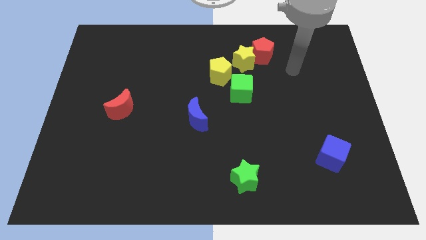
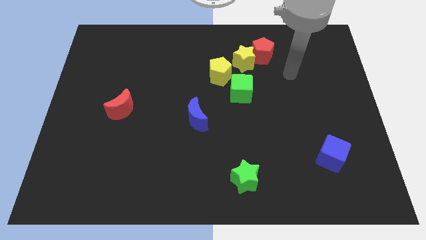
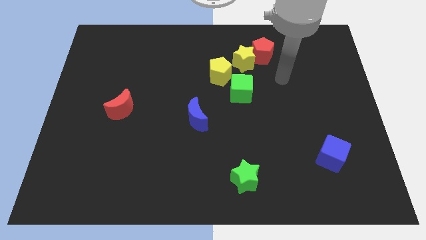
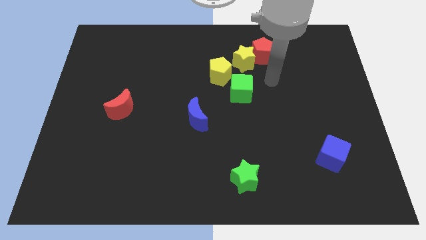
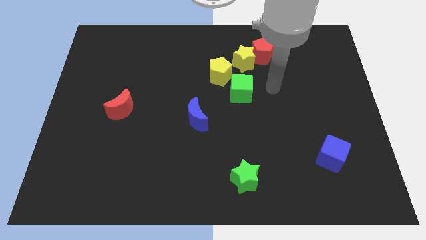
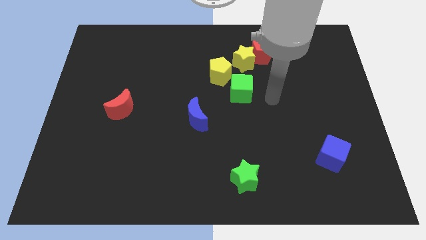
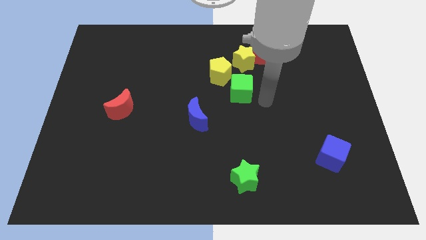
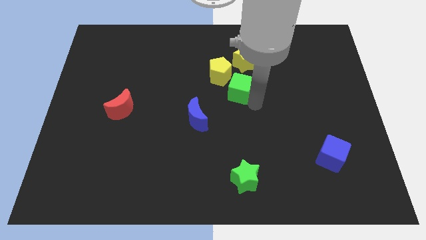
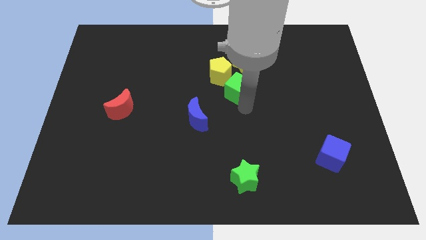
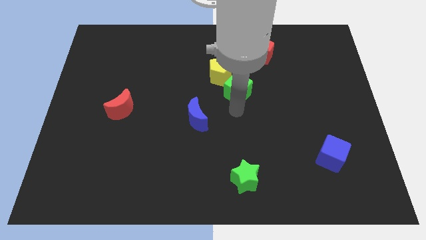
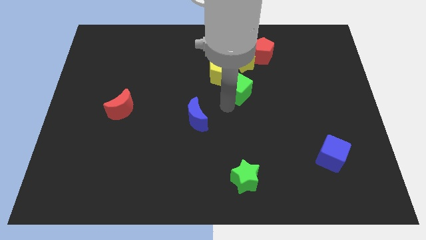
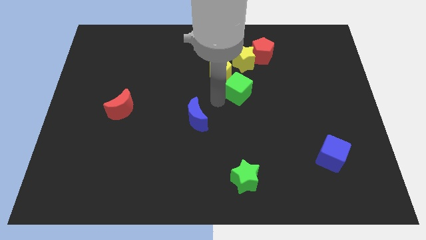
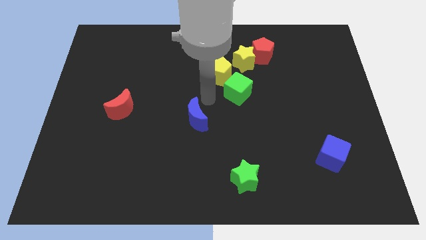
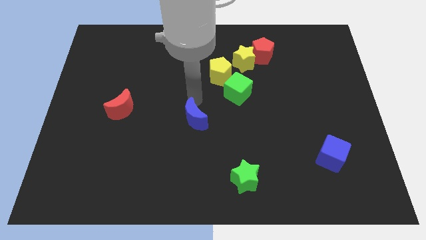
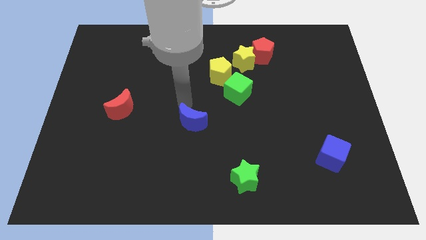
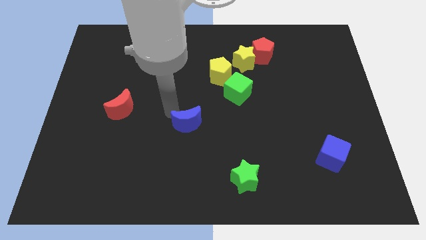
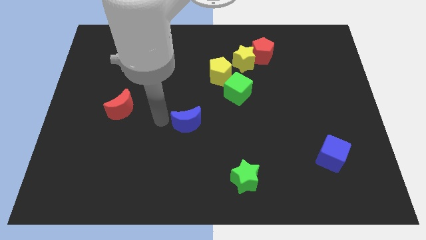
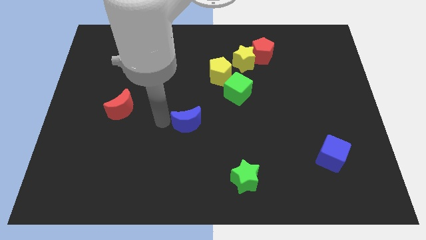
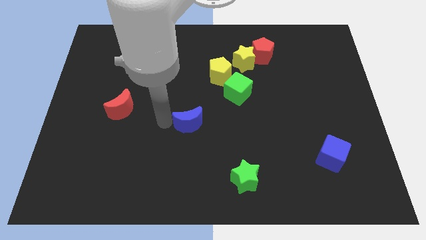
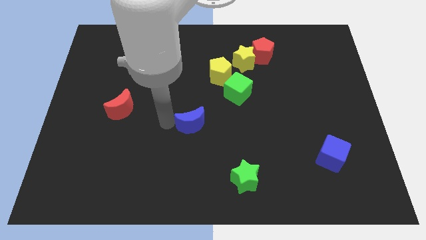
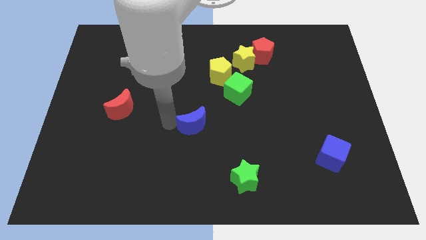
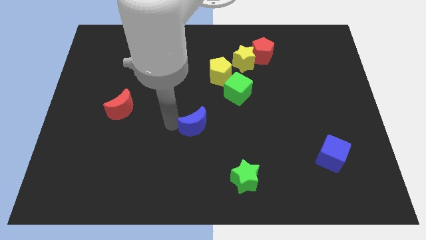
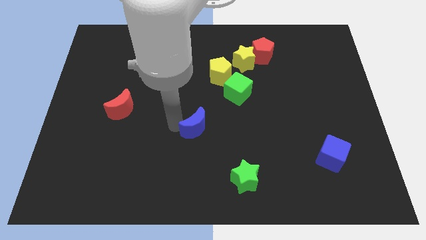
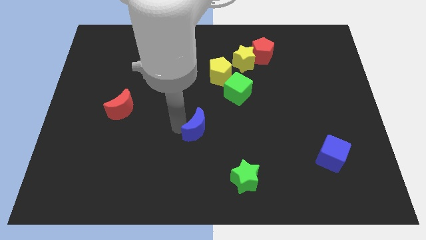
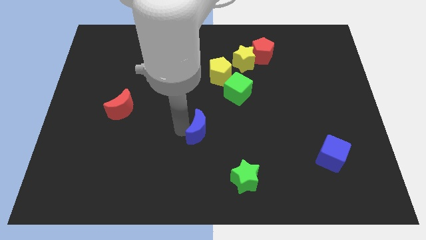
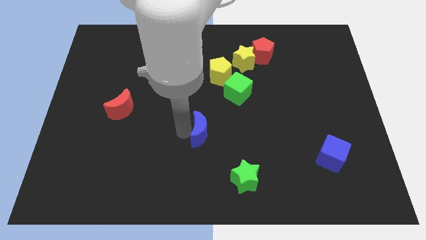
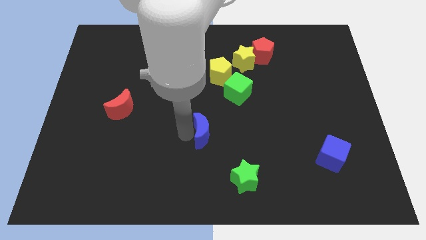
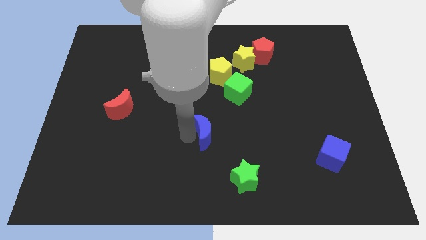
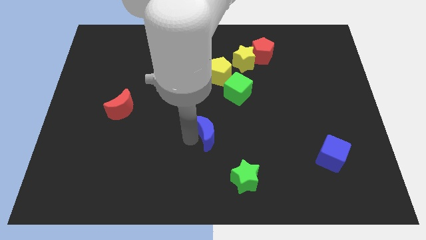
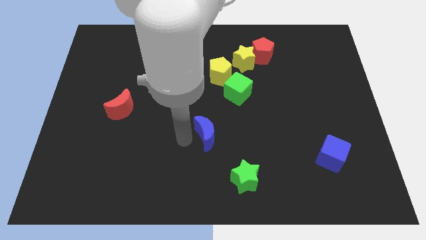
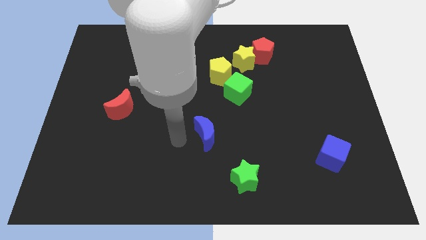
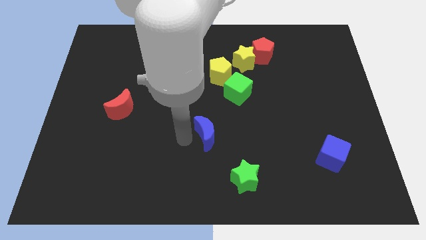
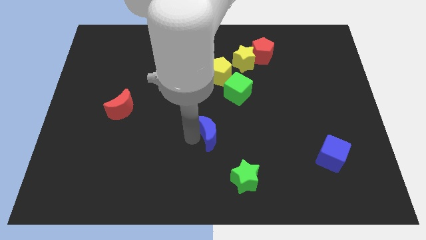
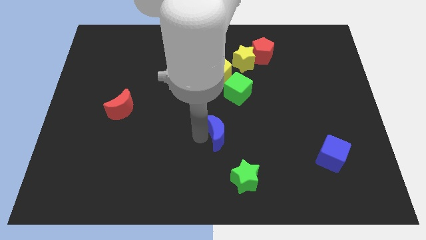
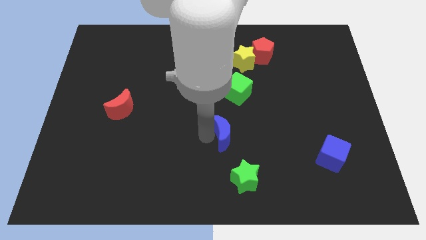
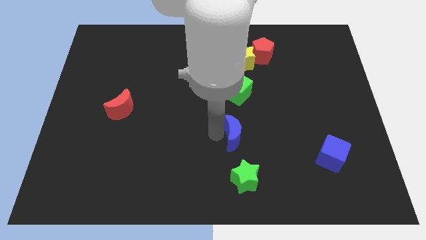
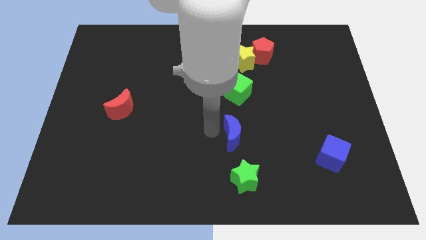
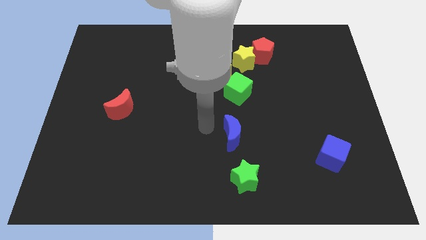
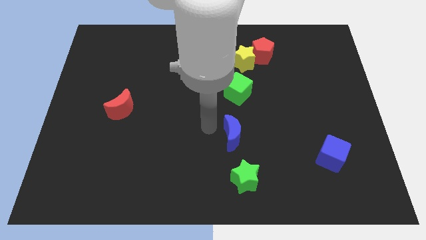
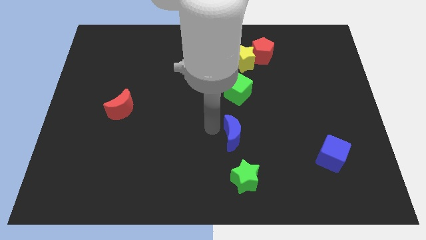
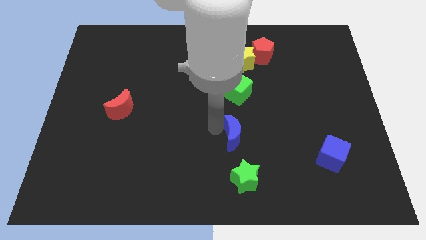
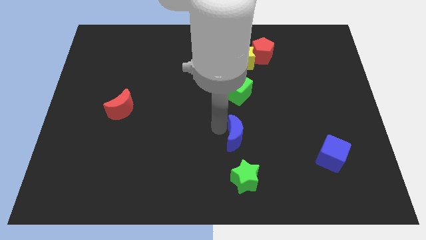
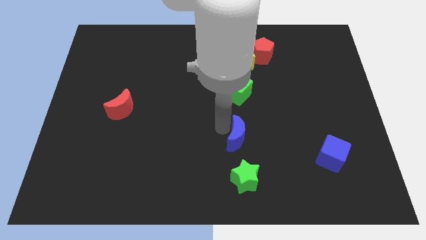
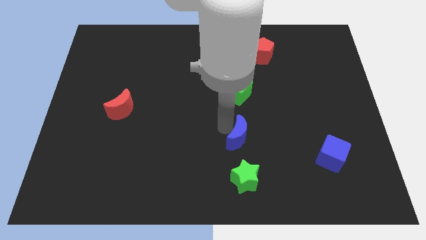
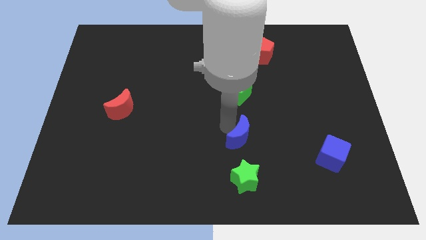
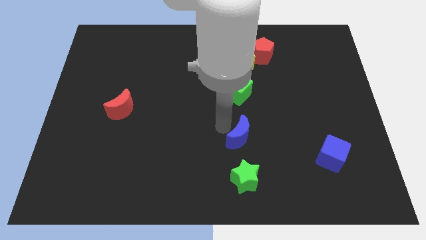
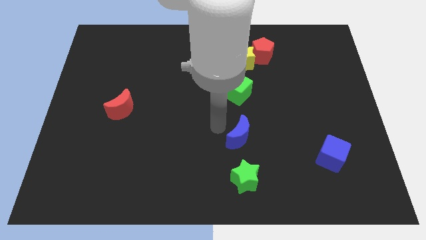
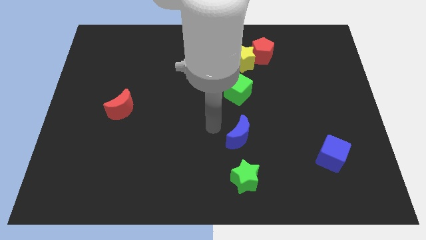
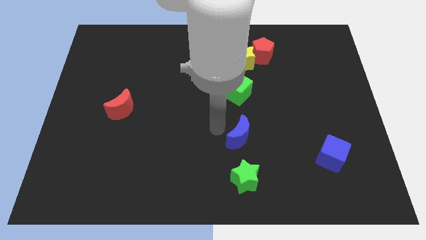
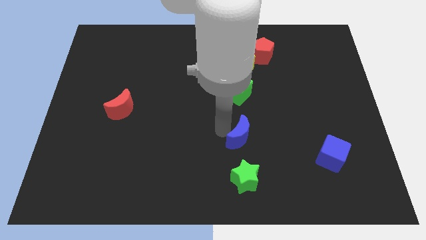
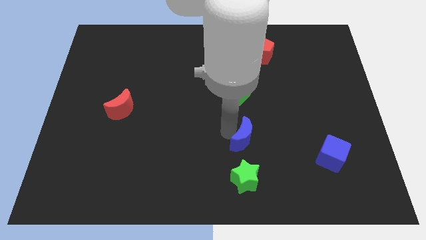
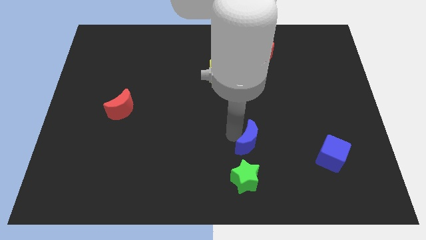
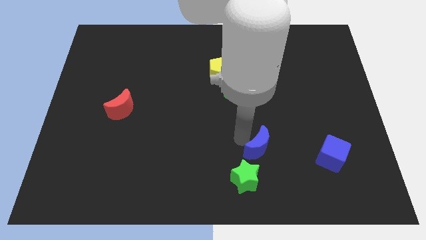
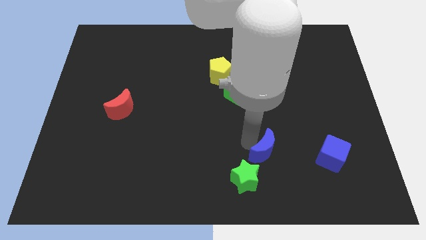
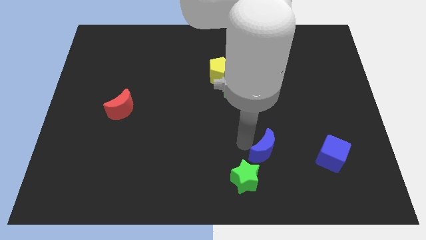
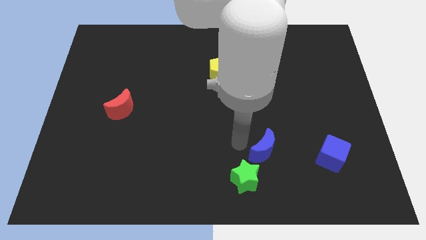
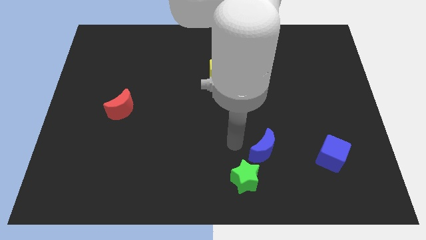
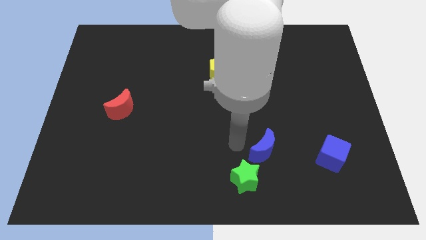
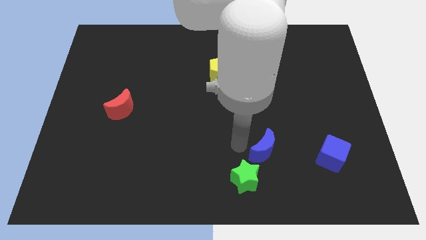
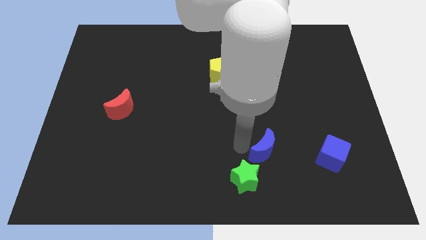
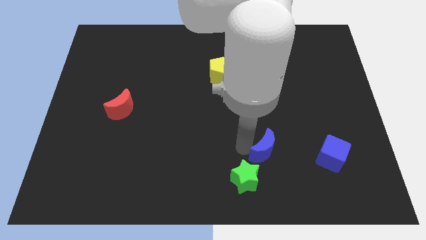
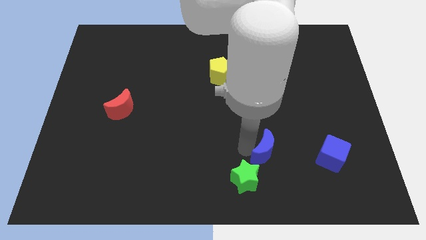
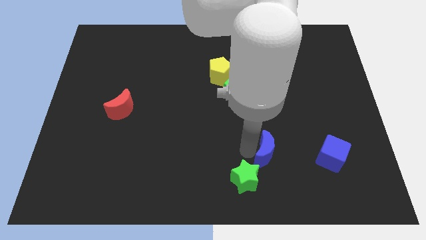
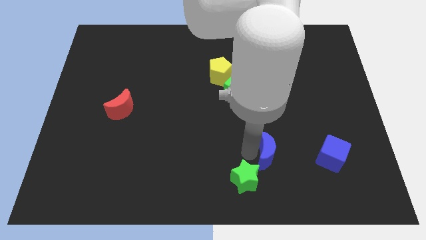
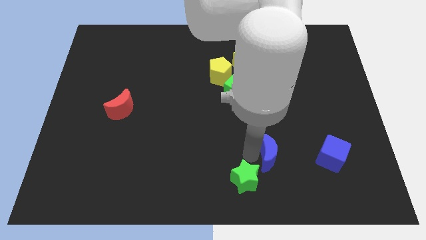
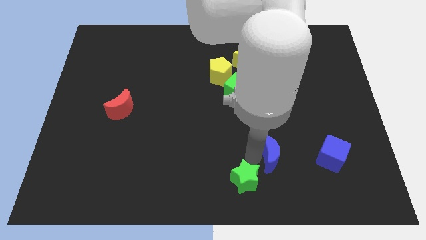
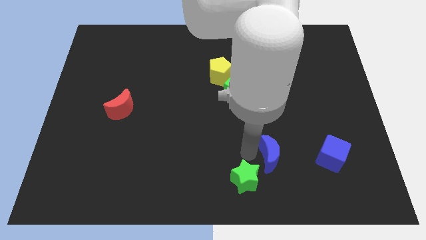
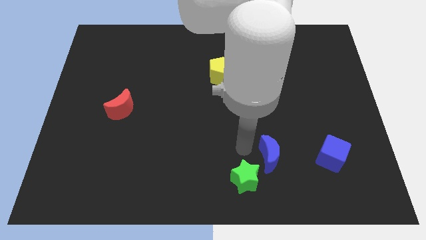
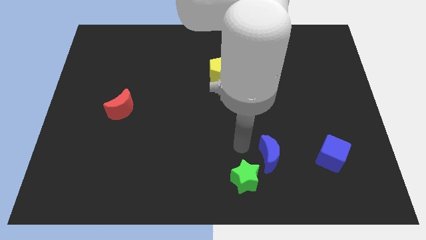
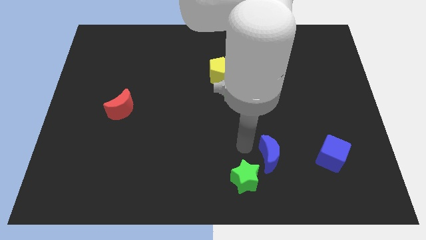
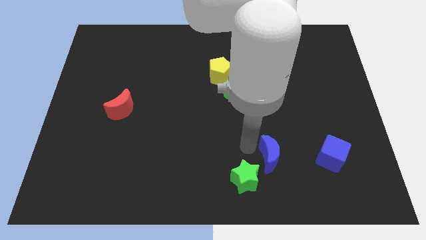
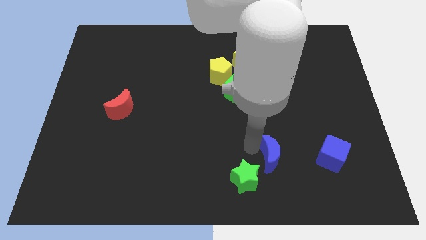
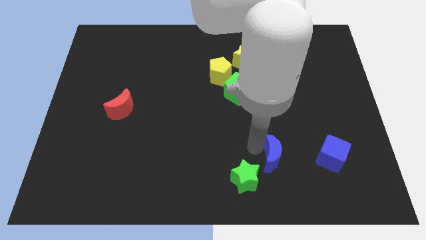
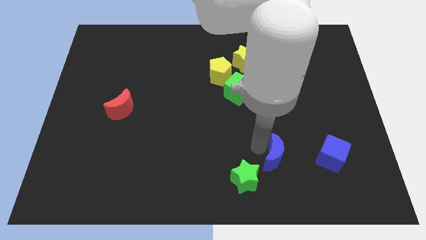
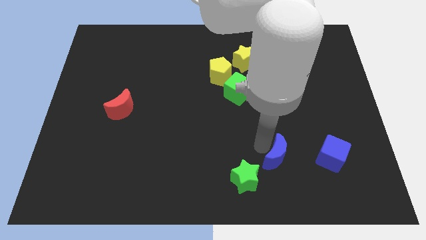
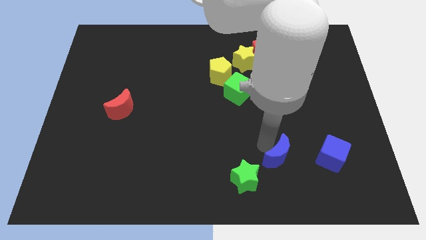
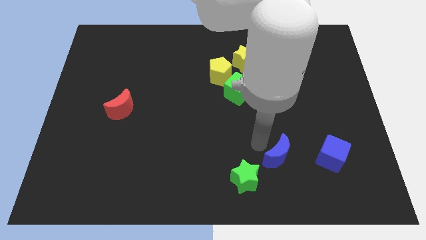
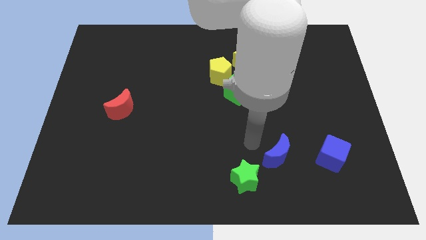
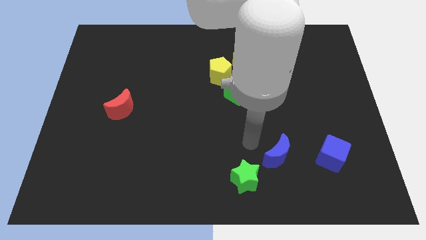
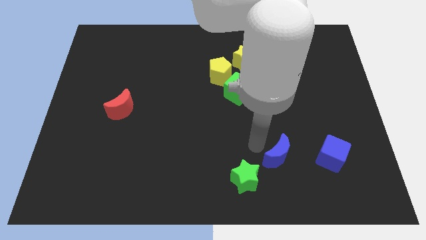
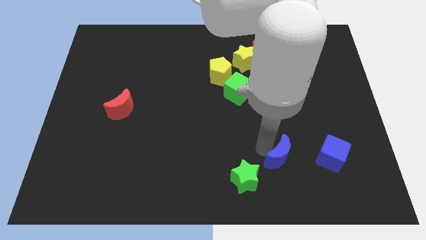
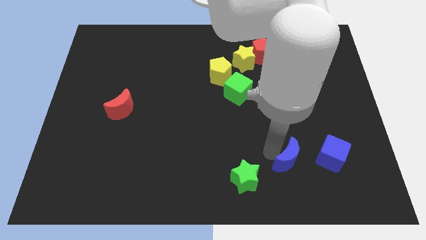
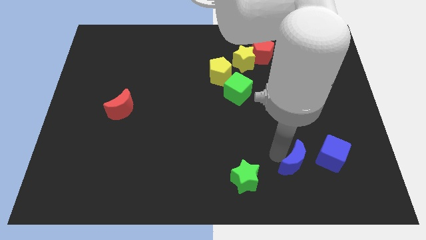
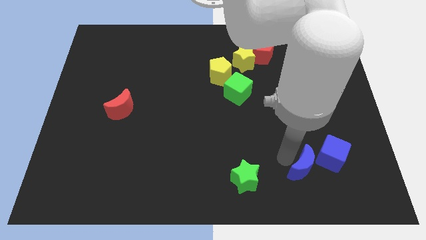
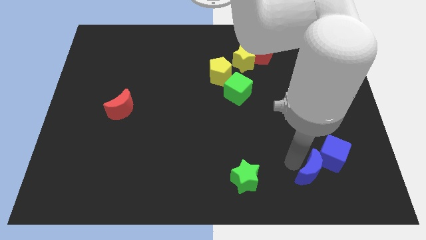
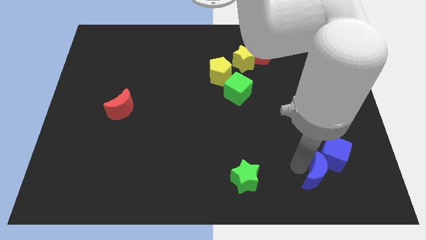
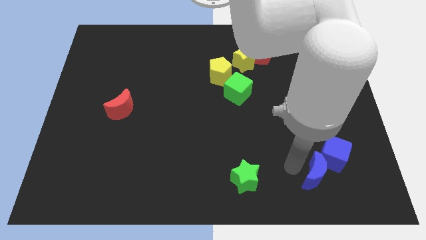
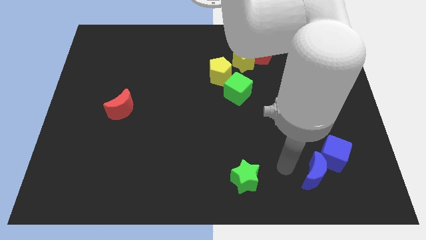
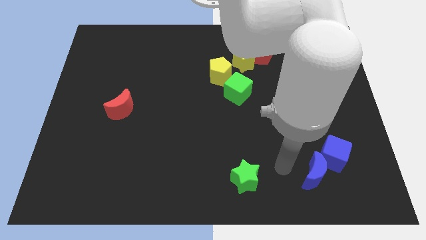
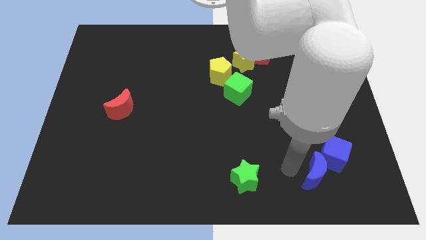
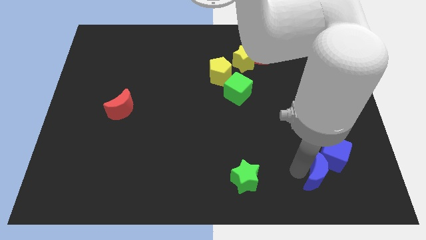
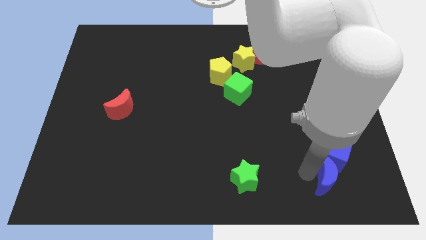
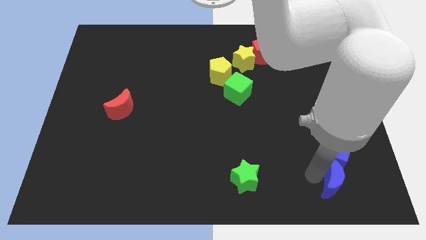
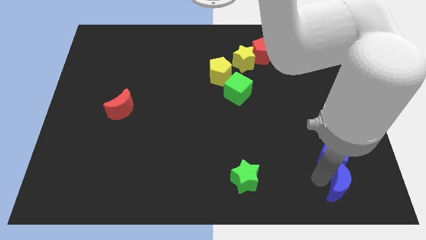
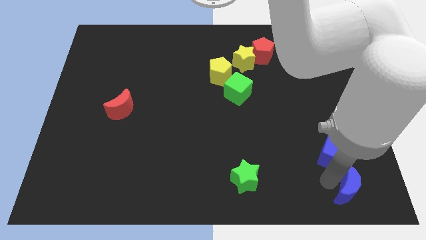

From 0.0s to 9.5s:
put the blue moon to the bottom right
